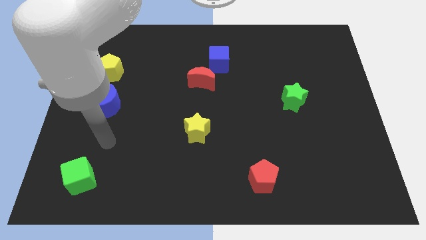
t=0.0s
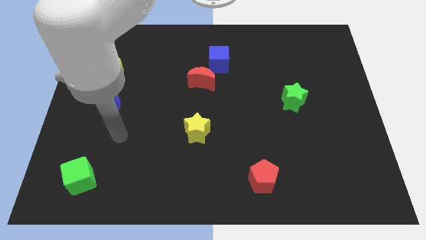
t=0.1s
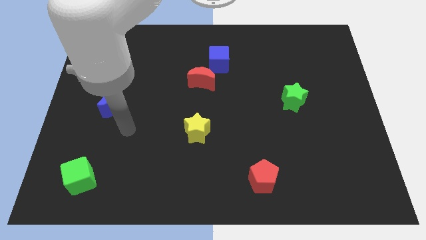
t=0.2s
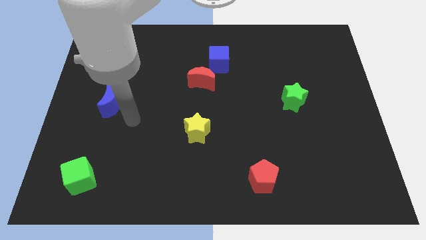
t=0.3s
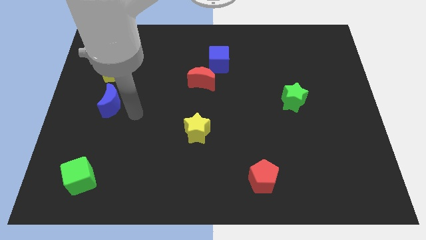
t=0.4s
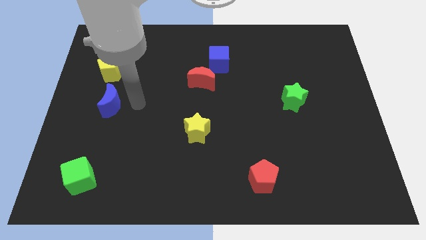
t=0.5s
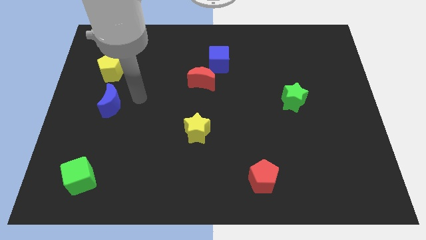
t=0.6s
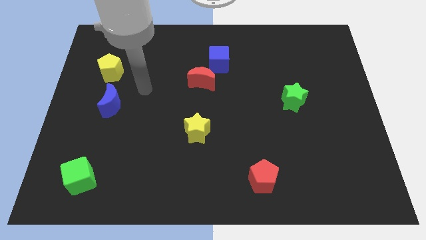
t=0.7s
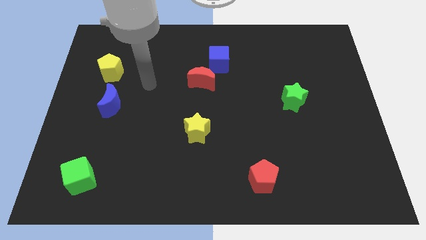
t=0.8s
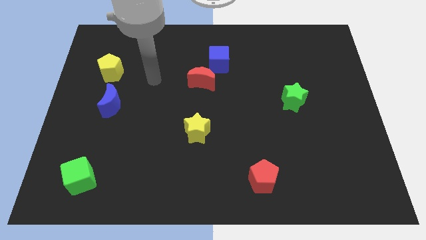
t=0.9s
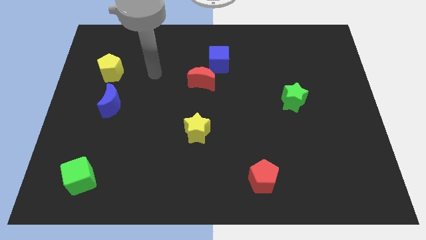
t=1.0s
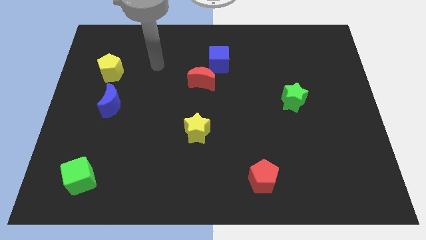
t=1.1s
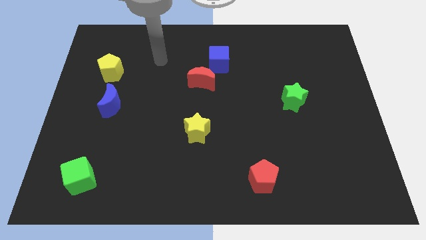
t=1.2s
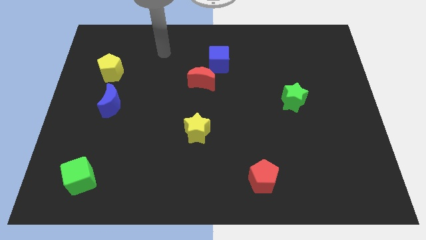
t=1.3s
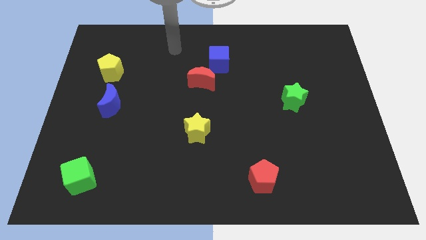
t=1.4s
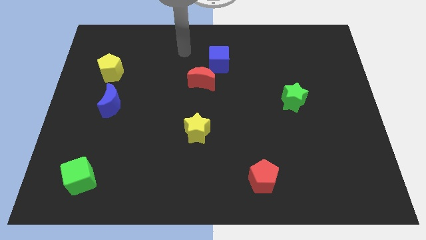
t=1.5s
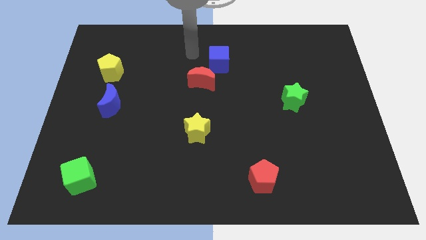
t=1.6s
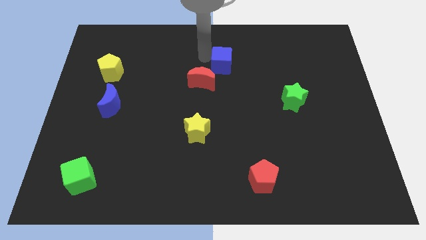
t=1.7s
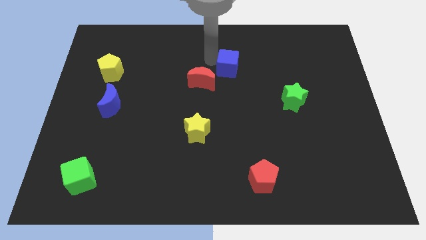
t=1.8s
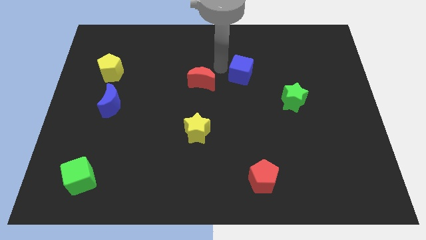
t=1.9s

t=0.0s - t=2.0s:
move the red moon away from the blue cube

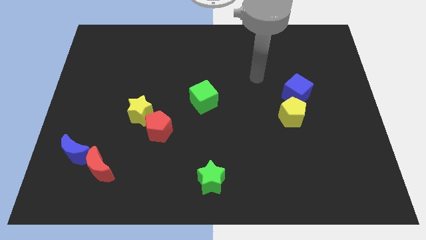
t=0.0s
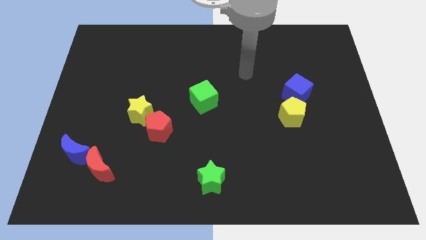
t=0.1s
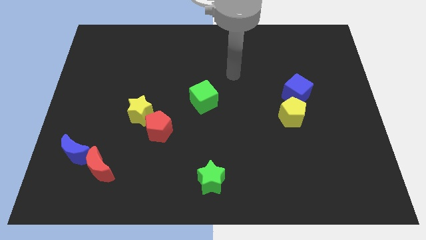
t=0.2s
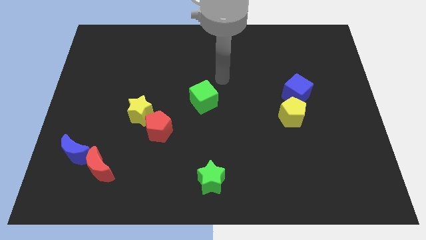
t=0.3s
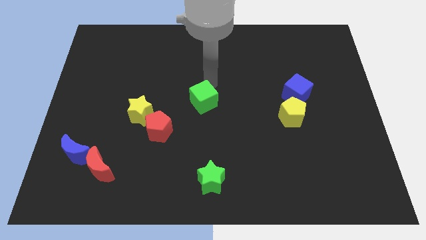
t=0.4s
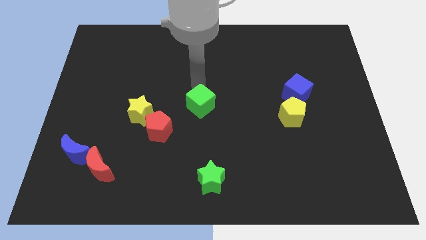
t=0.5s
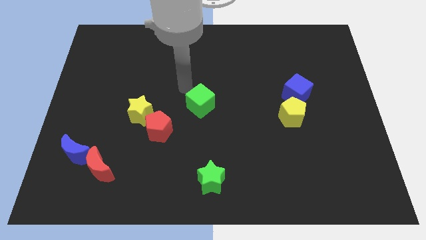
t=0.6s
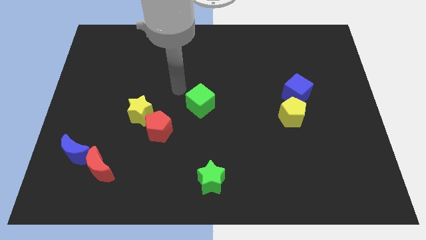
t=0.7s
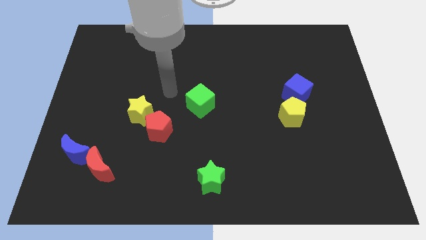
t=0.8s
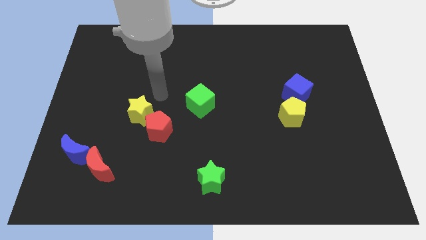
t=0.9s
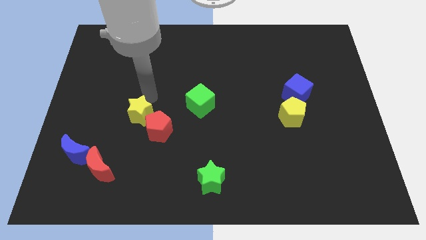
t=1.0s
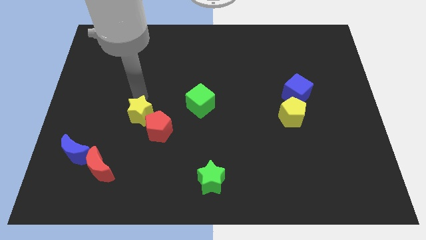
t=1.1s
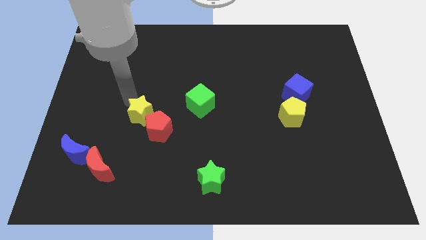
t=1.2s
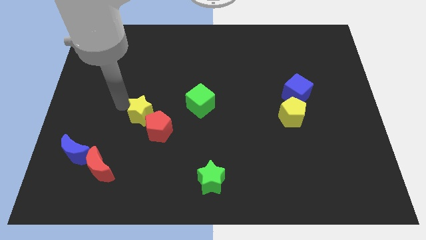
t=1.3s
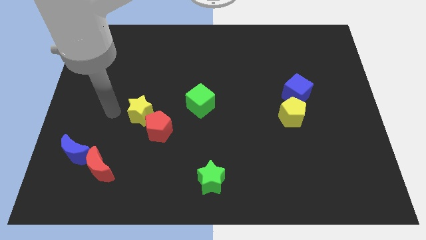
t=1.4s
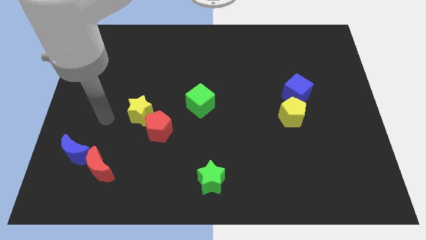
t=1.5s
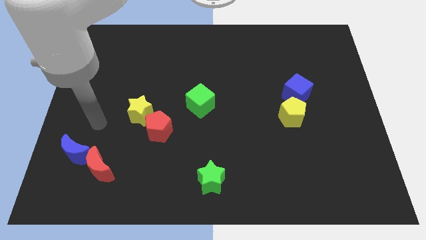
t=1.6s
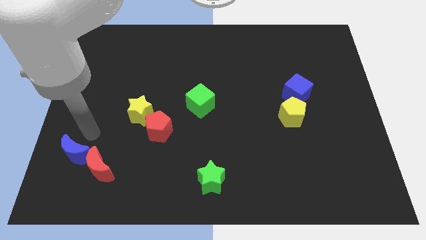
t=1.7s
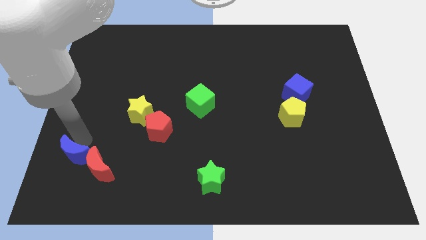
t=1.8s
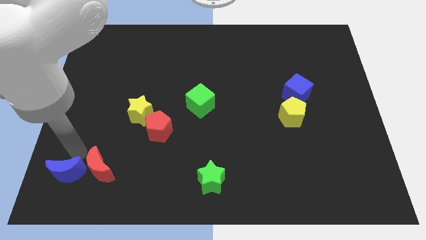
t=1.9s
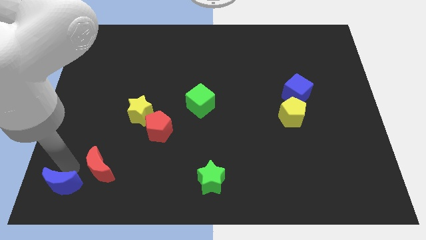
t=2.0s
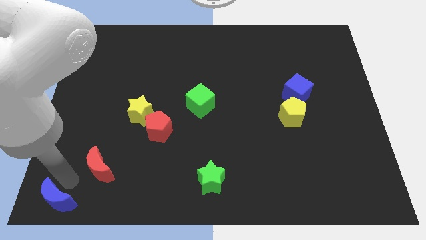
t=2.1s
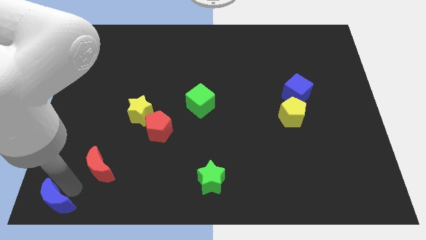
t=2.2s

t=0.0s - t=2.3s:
move the red moon away from the blue moon

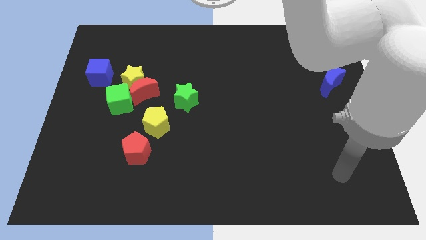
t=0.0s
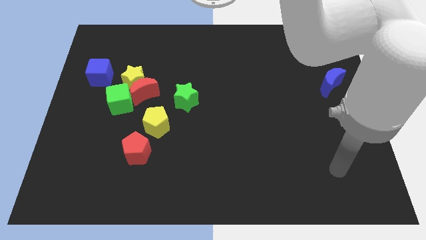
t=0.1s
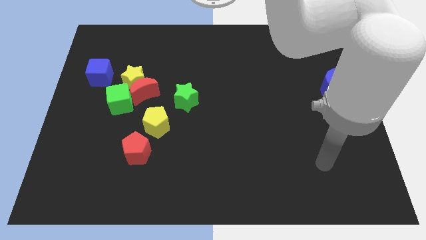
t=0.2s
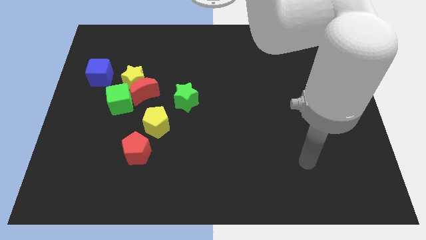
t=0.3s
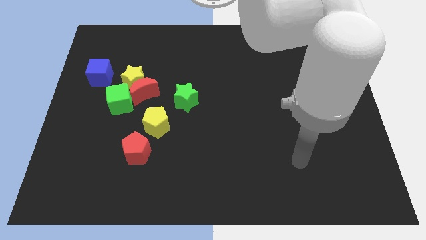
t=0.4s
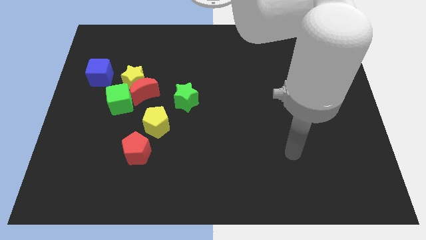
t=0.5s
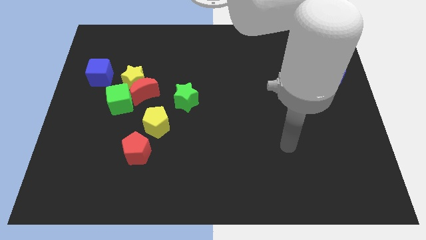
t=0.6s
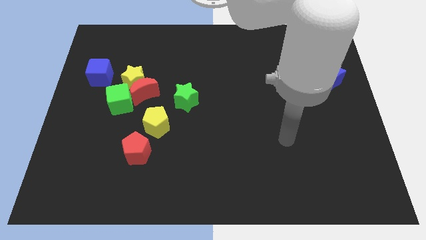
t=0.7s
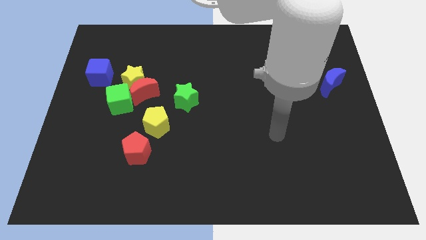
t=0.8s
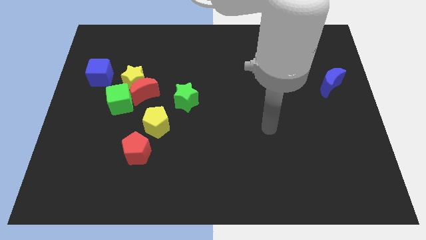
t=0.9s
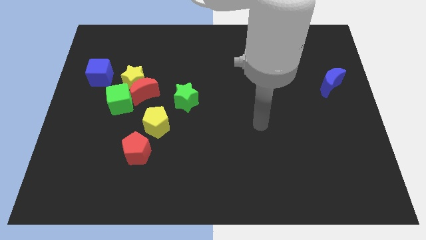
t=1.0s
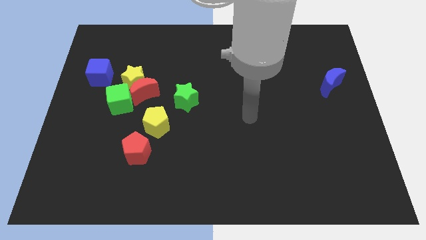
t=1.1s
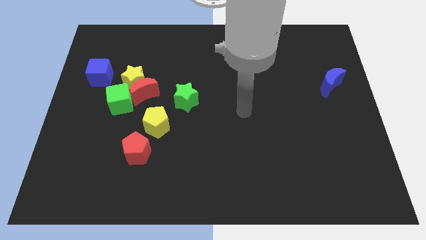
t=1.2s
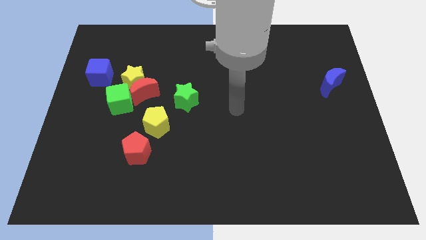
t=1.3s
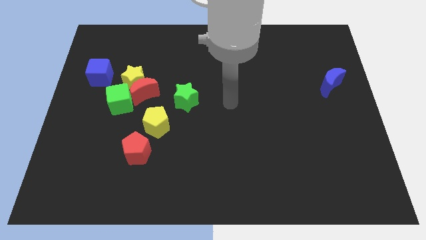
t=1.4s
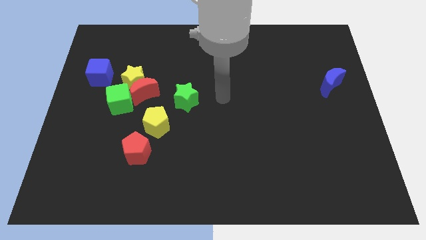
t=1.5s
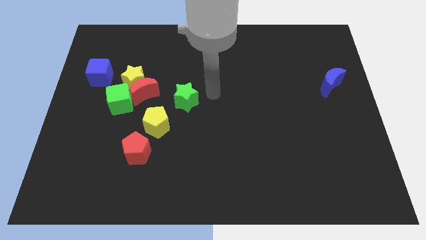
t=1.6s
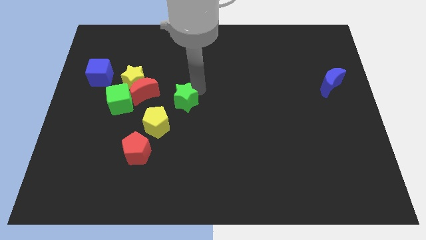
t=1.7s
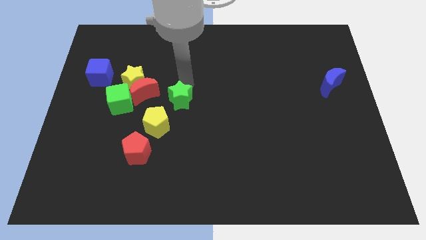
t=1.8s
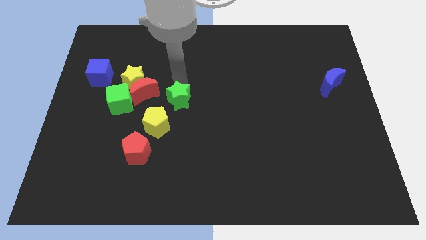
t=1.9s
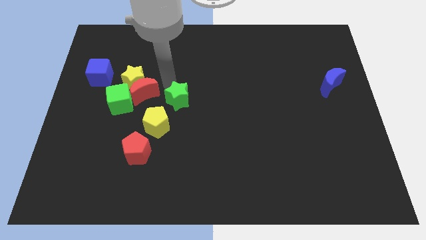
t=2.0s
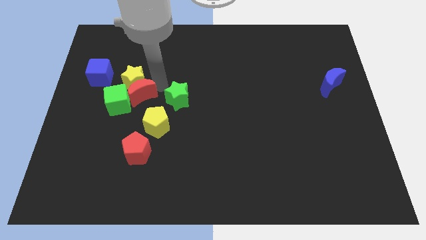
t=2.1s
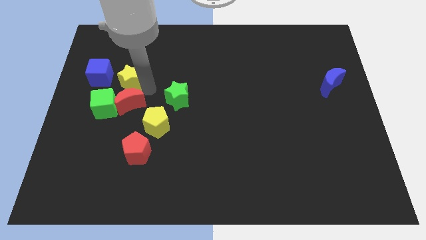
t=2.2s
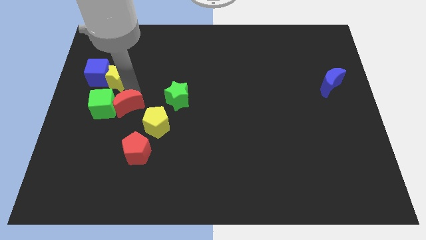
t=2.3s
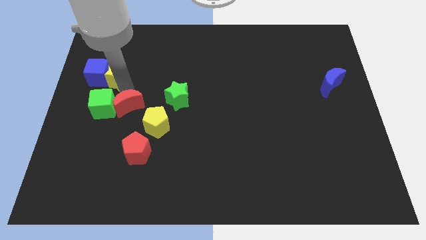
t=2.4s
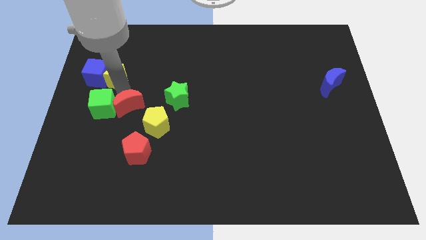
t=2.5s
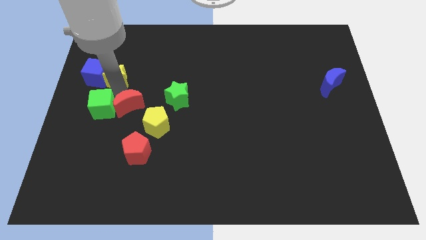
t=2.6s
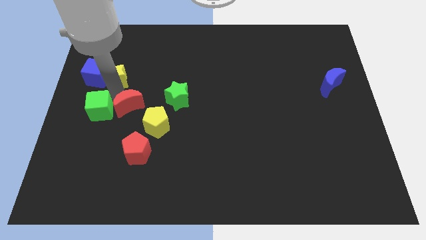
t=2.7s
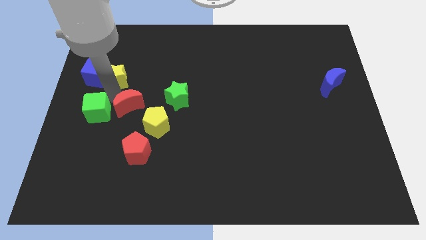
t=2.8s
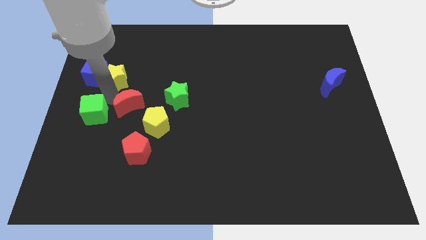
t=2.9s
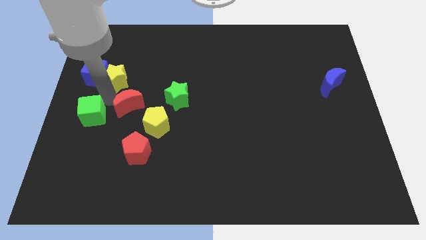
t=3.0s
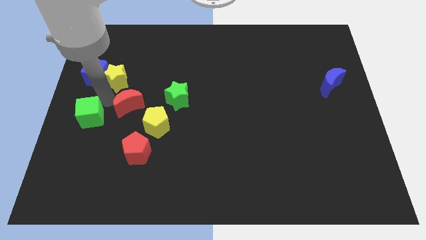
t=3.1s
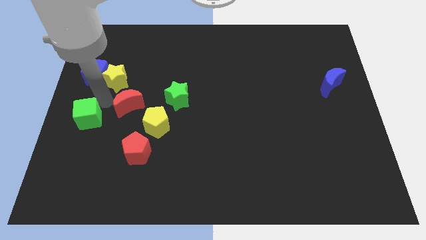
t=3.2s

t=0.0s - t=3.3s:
move the green cube away from the red moon and yellow star

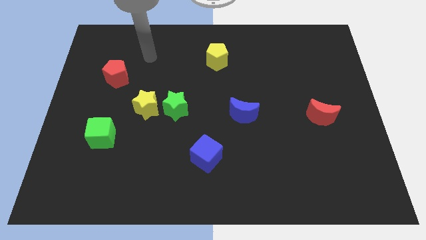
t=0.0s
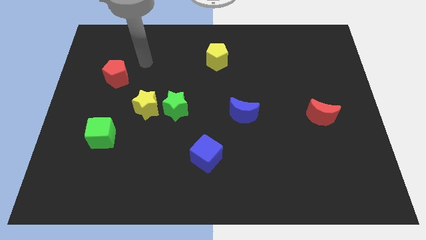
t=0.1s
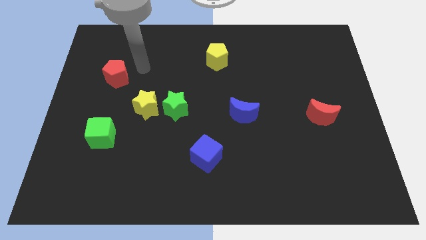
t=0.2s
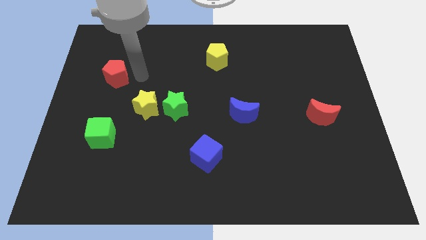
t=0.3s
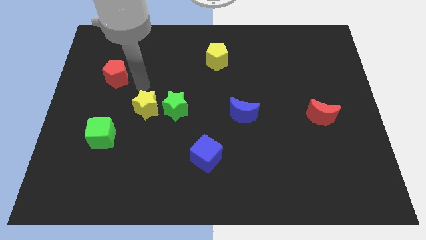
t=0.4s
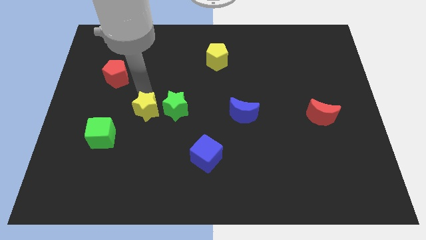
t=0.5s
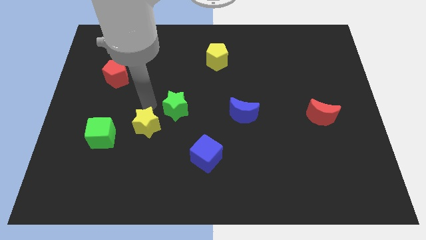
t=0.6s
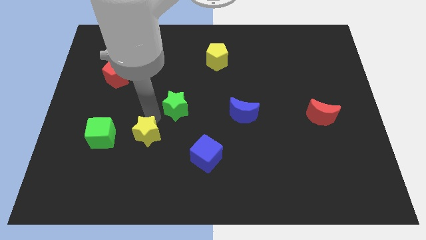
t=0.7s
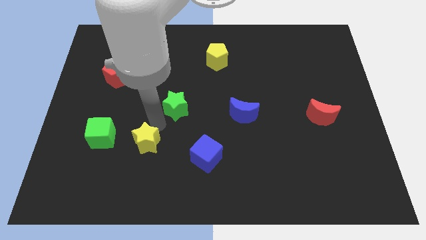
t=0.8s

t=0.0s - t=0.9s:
separate the green star from the yellow star

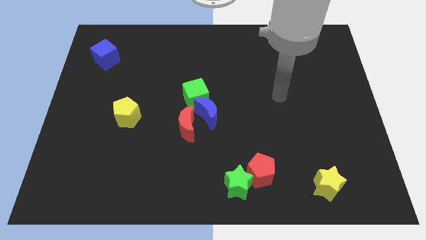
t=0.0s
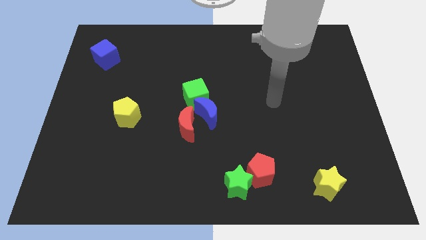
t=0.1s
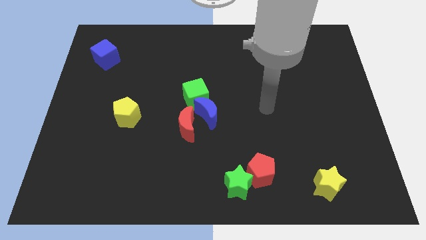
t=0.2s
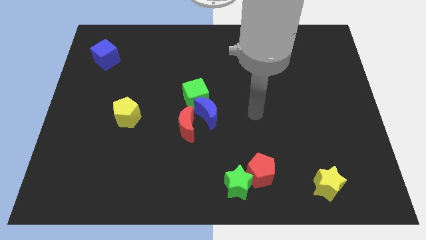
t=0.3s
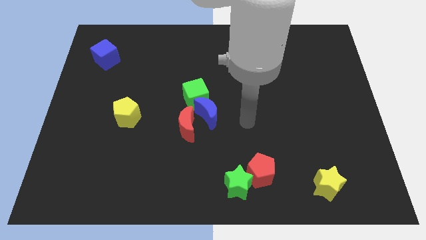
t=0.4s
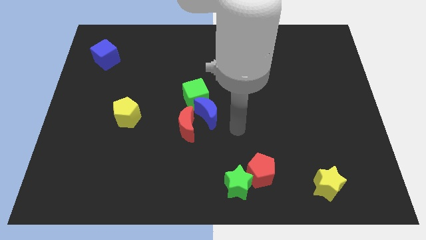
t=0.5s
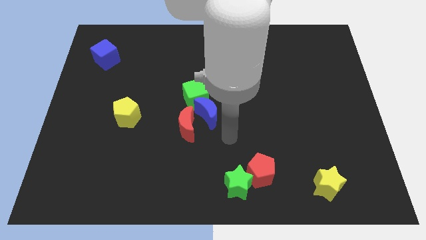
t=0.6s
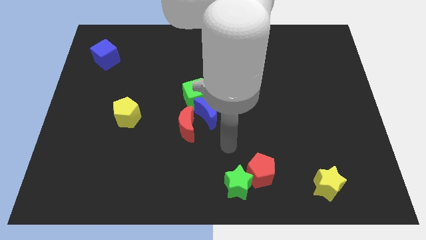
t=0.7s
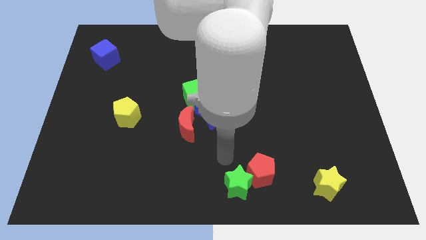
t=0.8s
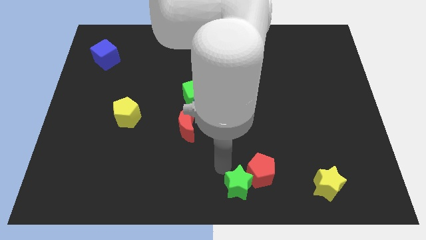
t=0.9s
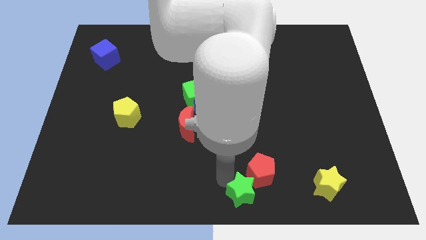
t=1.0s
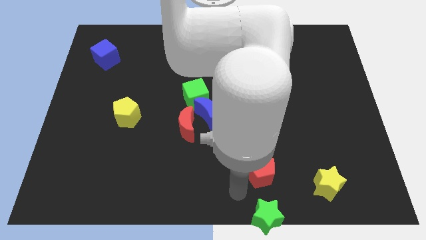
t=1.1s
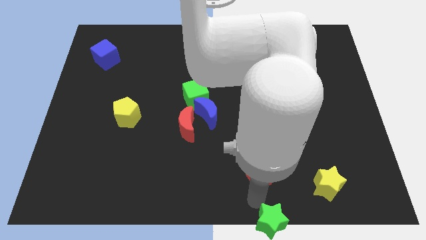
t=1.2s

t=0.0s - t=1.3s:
pull the red pentagon apart from the green star
